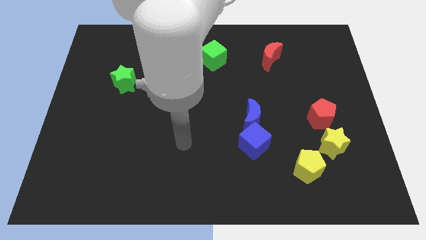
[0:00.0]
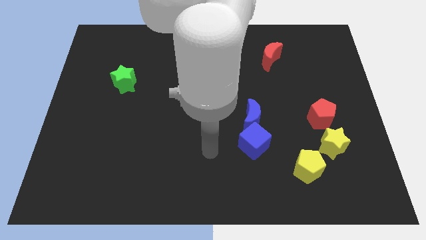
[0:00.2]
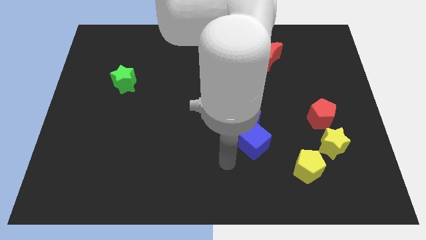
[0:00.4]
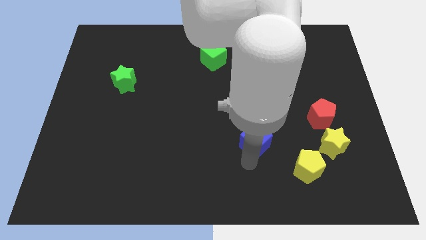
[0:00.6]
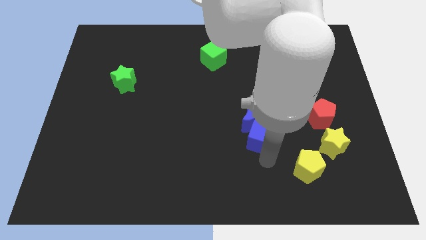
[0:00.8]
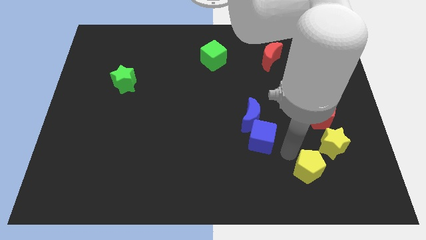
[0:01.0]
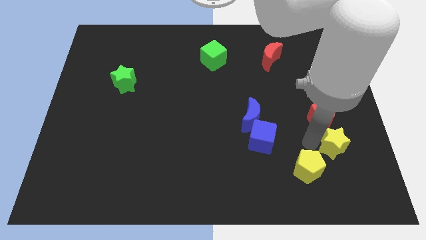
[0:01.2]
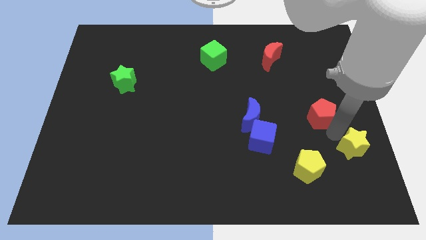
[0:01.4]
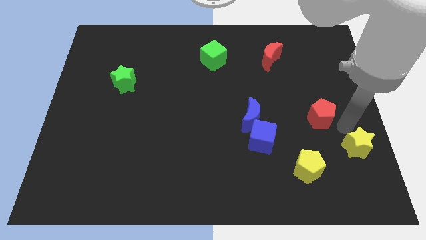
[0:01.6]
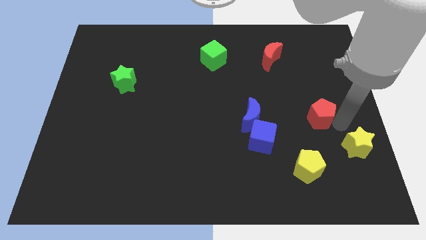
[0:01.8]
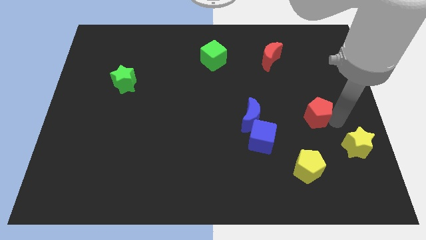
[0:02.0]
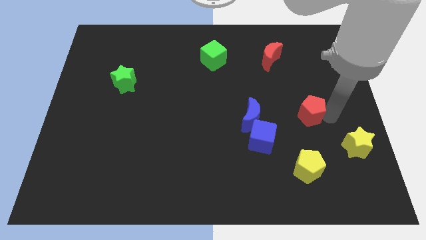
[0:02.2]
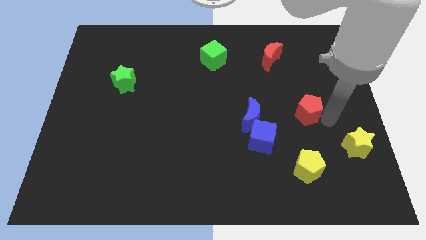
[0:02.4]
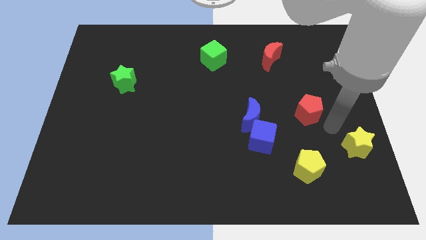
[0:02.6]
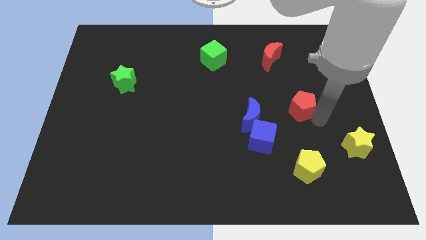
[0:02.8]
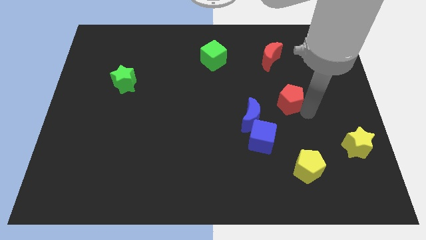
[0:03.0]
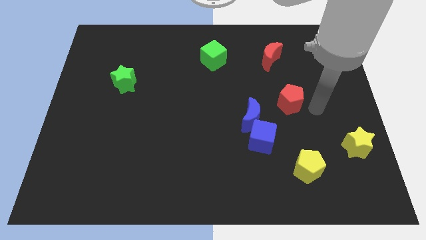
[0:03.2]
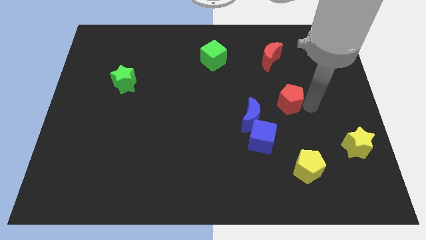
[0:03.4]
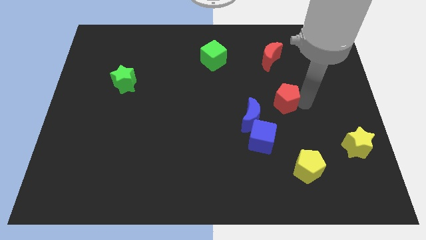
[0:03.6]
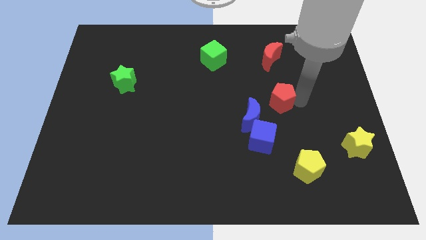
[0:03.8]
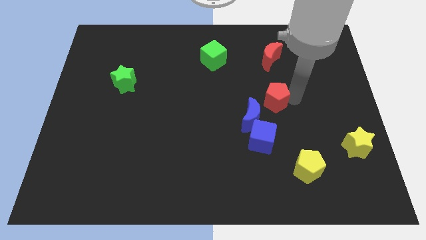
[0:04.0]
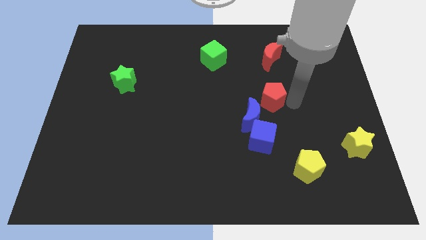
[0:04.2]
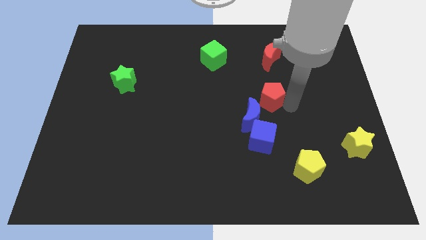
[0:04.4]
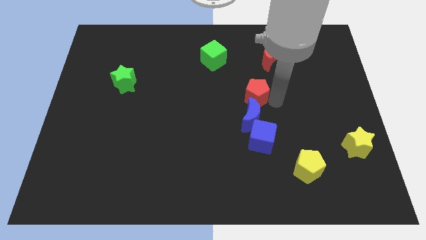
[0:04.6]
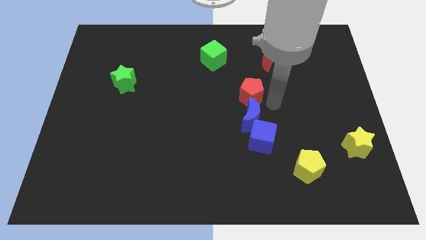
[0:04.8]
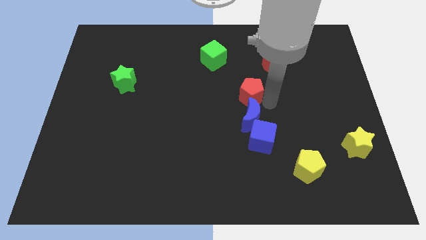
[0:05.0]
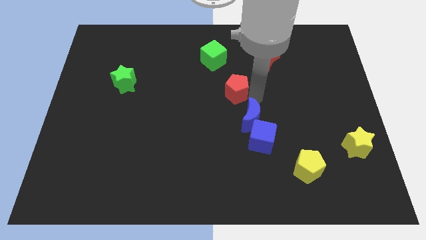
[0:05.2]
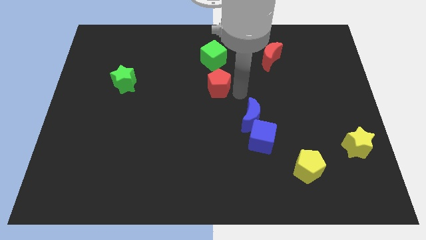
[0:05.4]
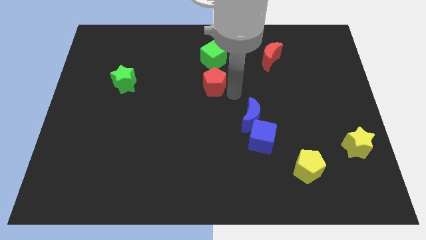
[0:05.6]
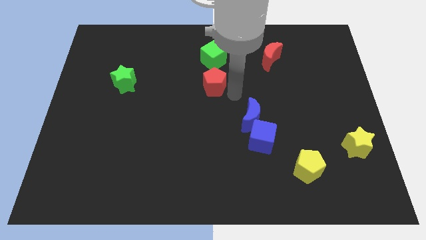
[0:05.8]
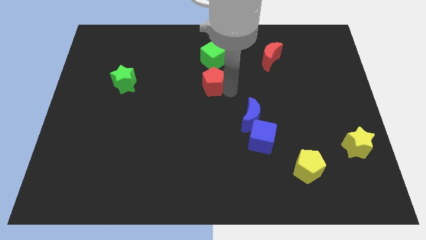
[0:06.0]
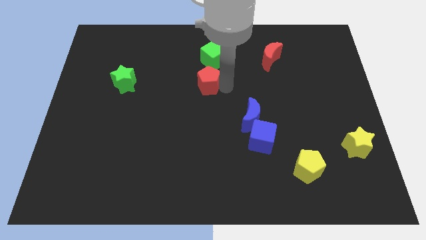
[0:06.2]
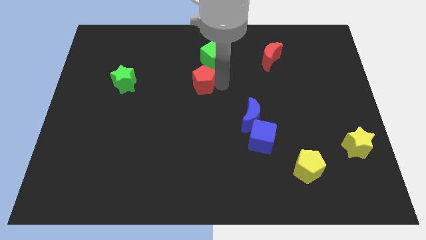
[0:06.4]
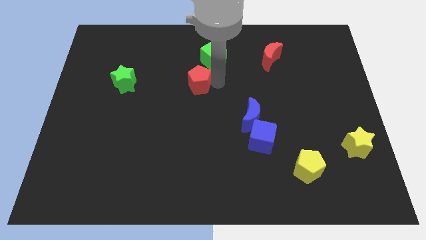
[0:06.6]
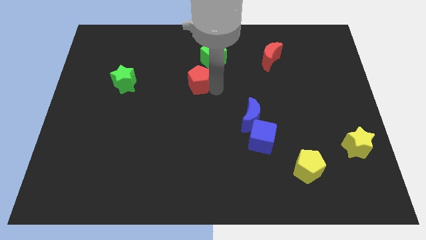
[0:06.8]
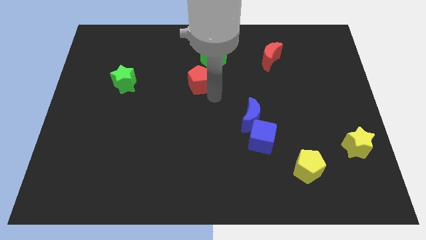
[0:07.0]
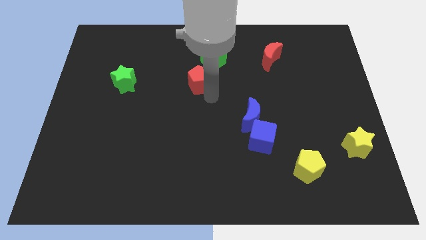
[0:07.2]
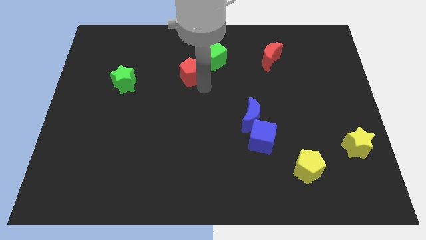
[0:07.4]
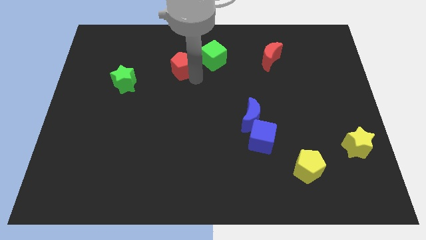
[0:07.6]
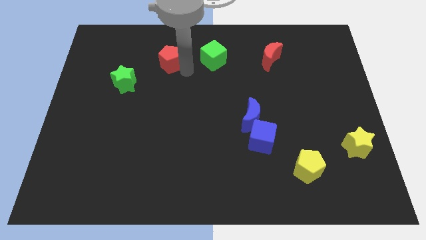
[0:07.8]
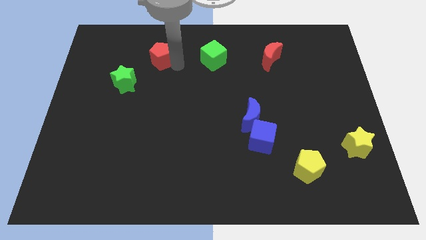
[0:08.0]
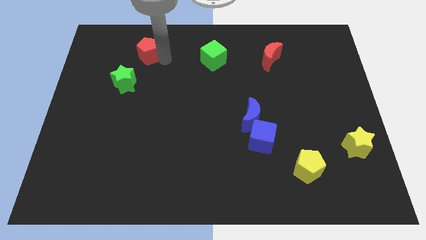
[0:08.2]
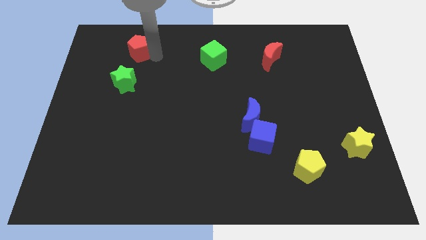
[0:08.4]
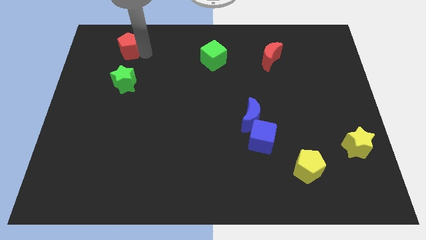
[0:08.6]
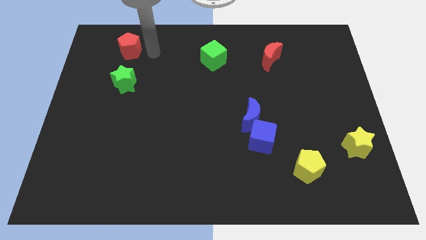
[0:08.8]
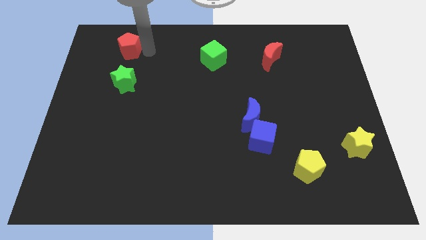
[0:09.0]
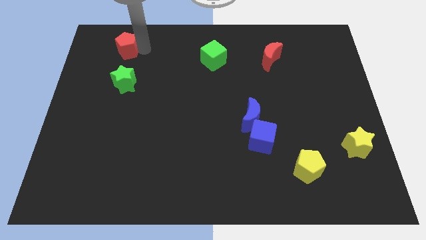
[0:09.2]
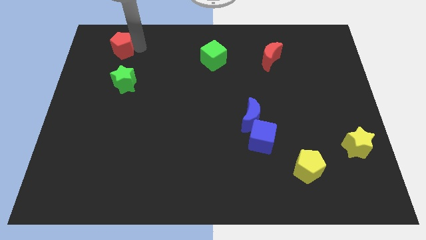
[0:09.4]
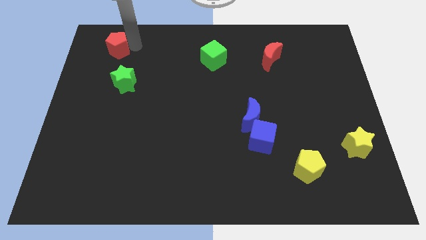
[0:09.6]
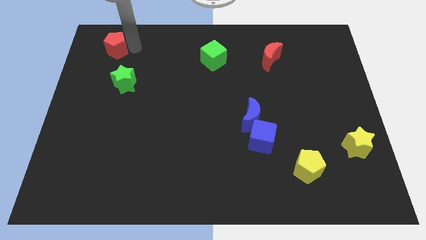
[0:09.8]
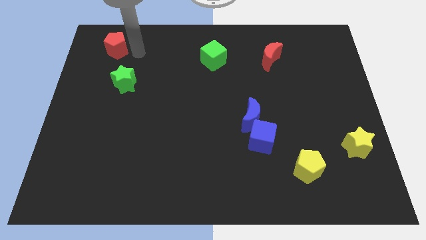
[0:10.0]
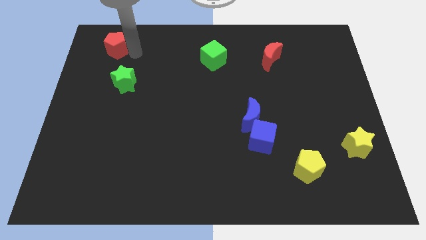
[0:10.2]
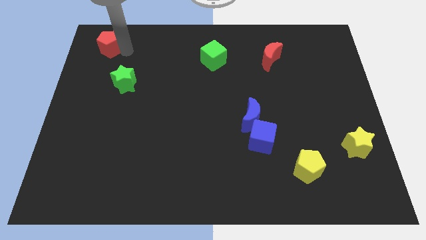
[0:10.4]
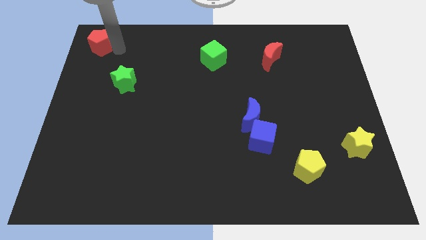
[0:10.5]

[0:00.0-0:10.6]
push the red pentagon to the upper left corner

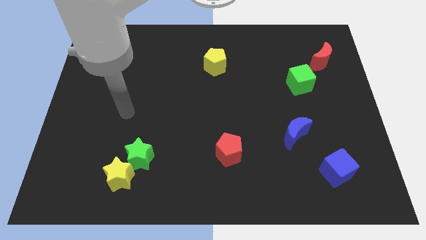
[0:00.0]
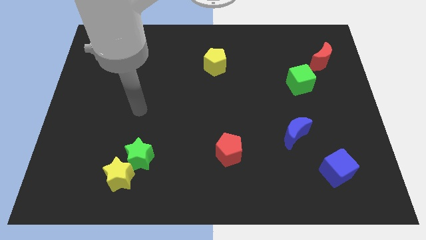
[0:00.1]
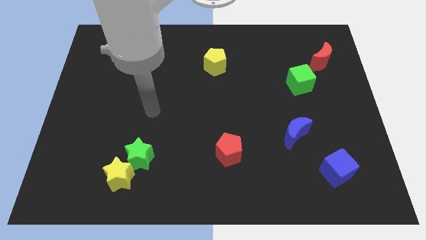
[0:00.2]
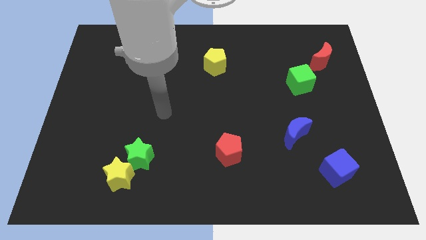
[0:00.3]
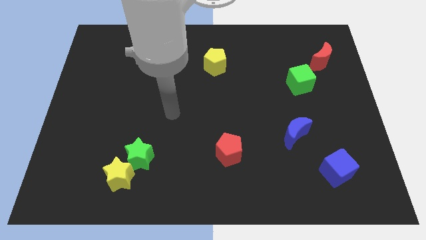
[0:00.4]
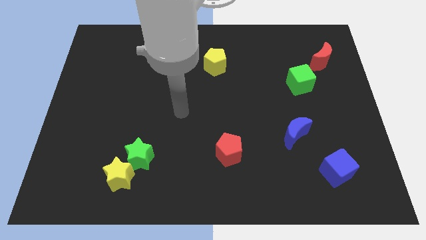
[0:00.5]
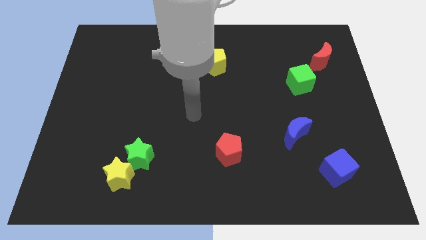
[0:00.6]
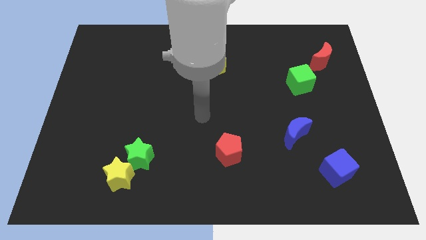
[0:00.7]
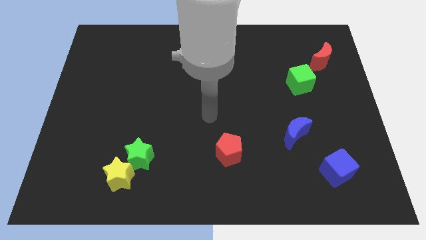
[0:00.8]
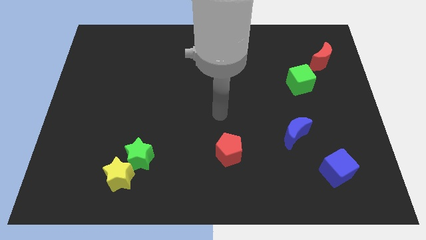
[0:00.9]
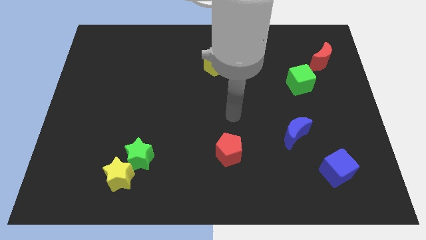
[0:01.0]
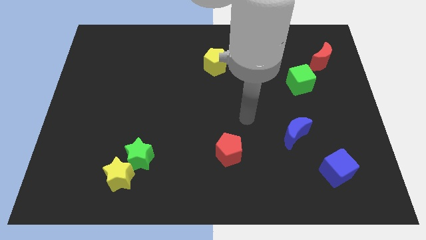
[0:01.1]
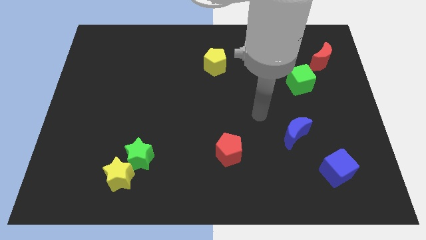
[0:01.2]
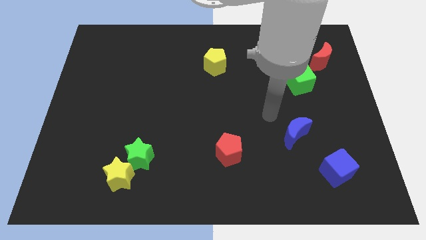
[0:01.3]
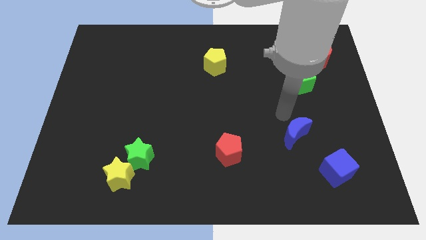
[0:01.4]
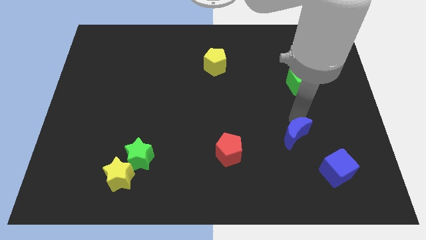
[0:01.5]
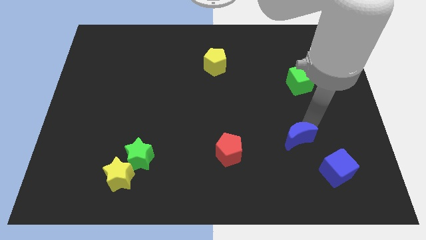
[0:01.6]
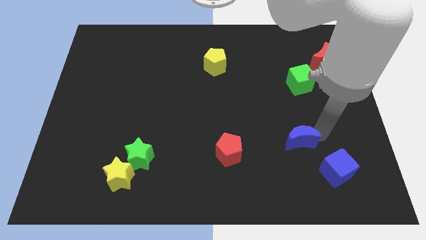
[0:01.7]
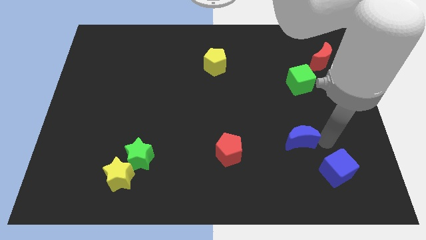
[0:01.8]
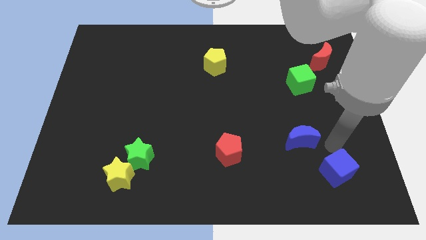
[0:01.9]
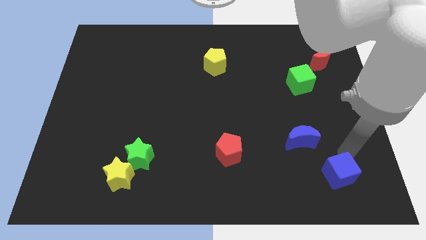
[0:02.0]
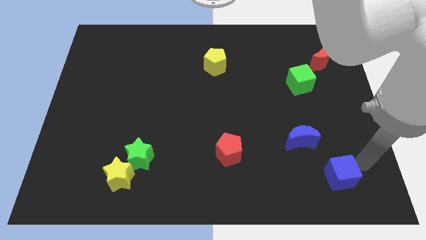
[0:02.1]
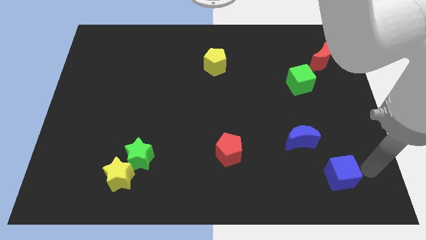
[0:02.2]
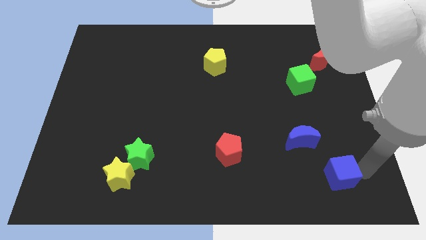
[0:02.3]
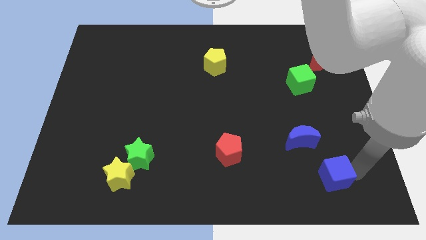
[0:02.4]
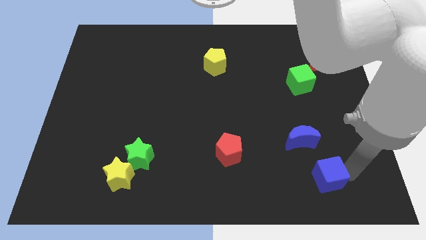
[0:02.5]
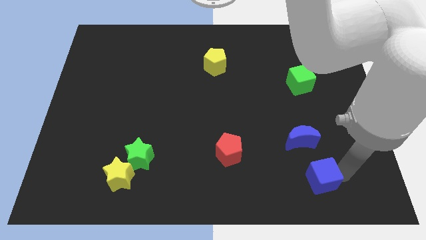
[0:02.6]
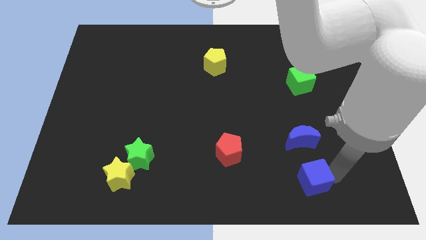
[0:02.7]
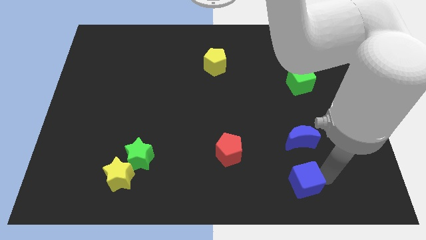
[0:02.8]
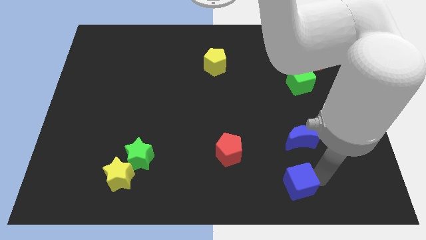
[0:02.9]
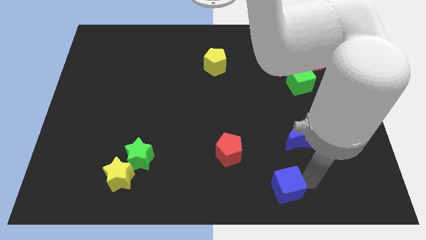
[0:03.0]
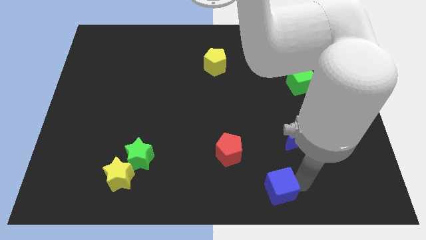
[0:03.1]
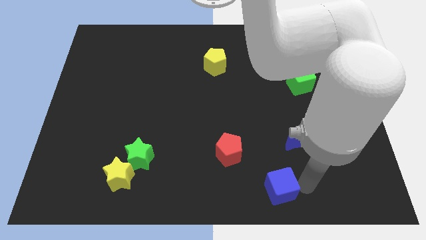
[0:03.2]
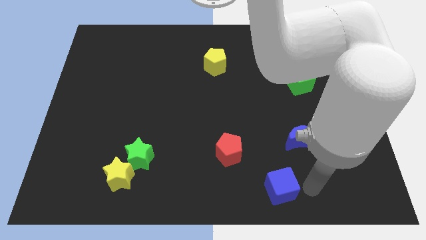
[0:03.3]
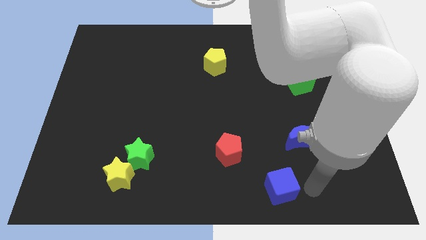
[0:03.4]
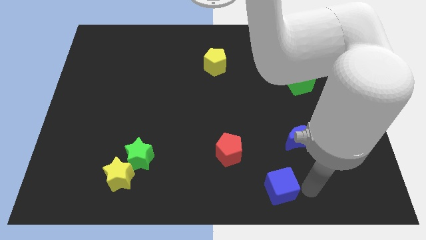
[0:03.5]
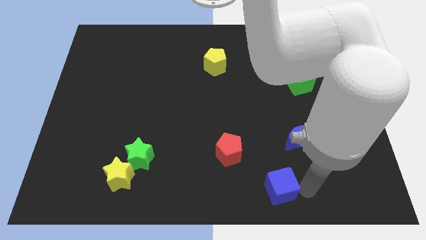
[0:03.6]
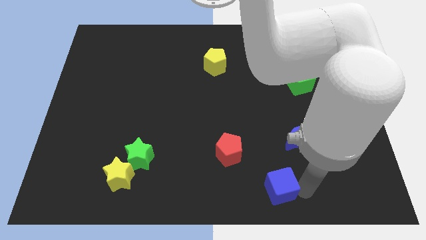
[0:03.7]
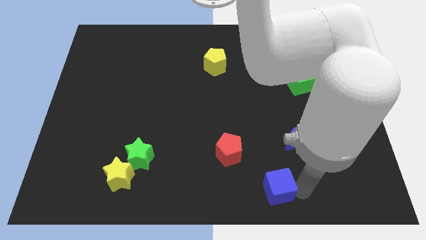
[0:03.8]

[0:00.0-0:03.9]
push the blue cube to the bottom
